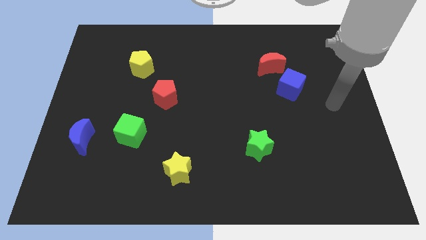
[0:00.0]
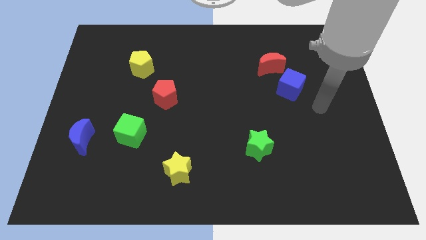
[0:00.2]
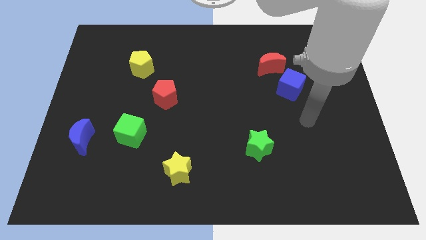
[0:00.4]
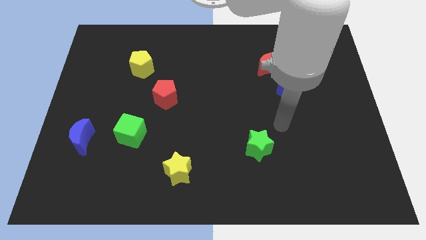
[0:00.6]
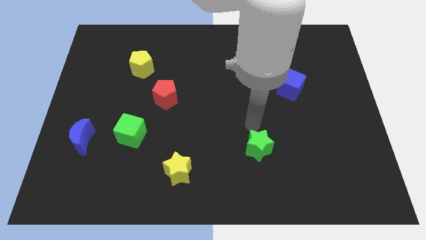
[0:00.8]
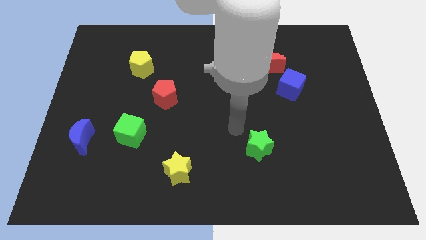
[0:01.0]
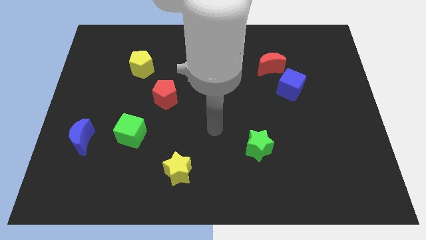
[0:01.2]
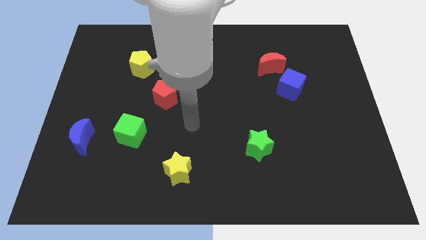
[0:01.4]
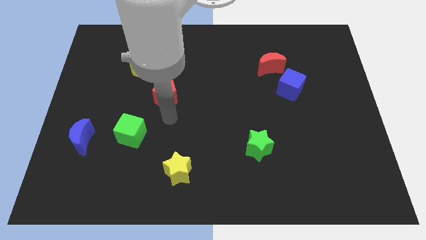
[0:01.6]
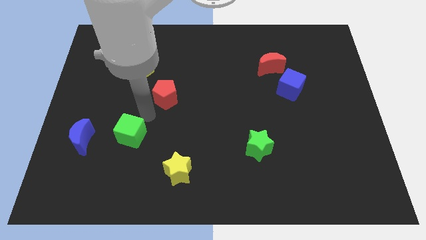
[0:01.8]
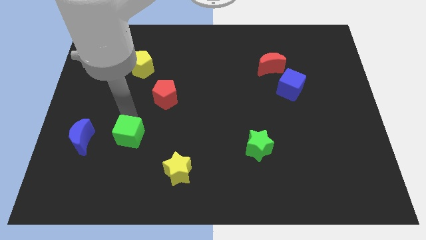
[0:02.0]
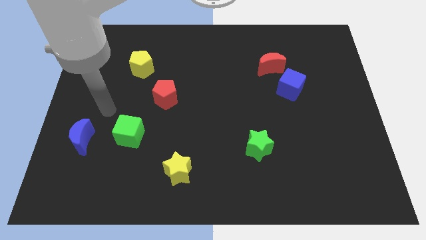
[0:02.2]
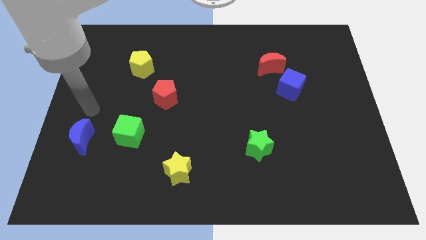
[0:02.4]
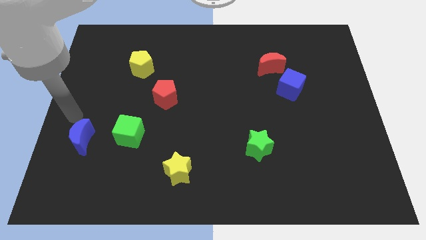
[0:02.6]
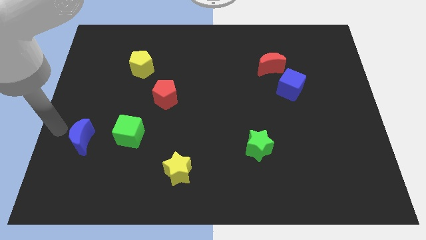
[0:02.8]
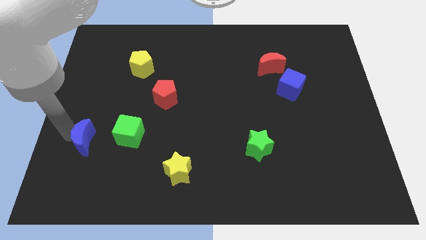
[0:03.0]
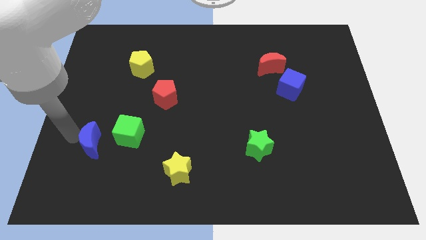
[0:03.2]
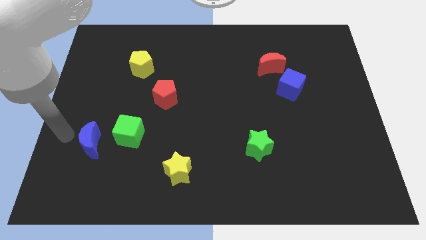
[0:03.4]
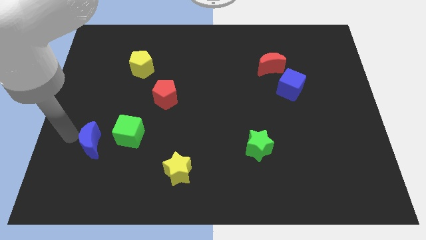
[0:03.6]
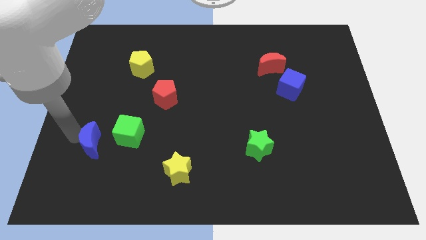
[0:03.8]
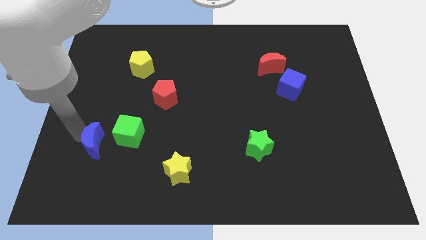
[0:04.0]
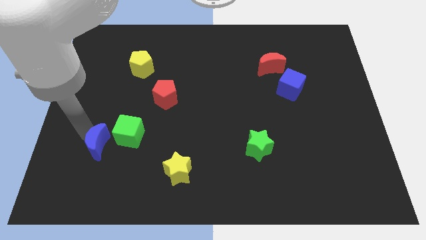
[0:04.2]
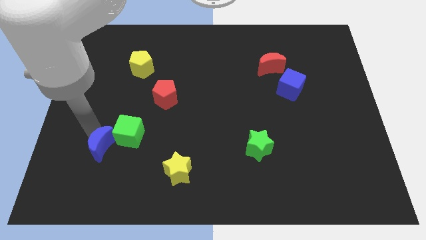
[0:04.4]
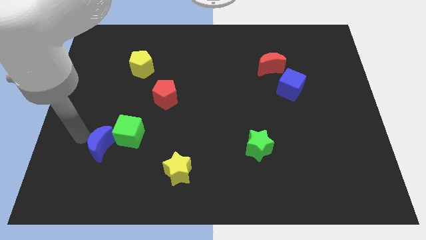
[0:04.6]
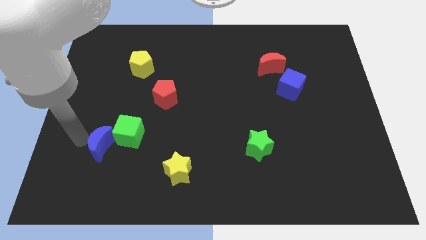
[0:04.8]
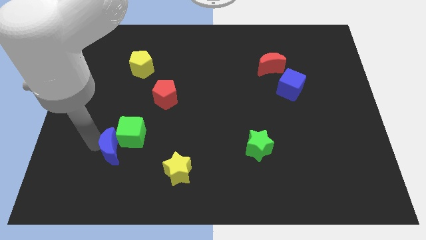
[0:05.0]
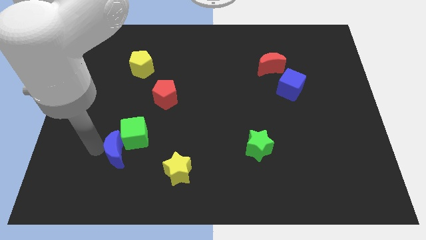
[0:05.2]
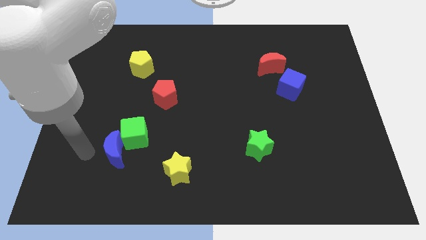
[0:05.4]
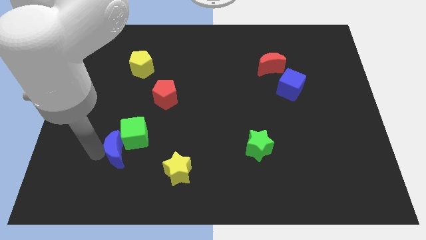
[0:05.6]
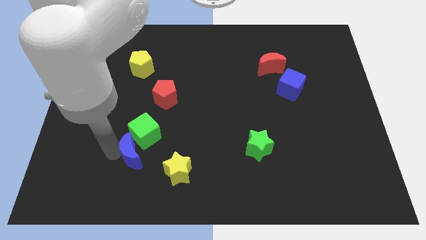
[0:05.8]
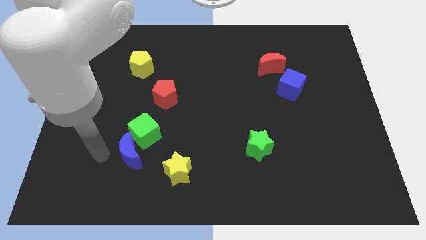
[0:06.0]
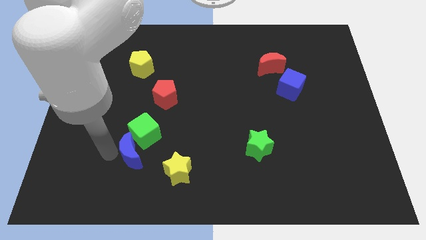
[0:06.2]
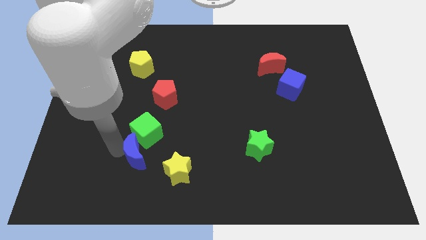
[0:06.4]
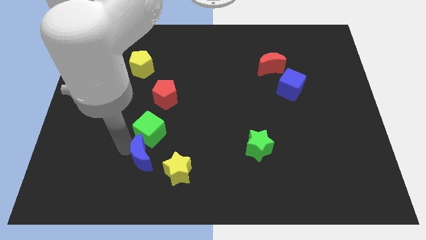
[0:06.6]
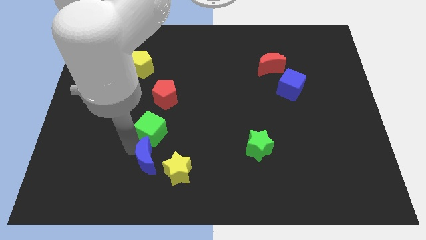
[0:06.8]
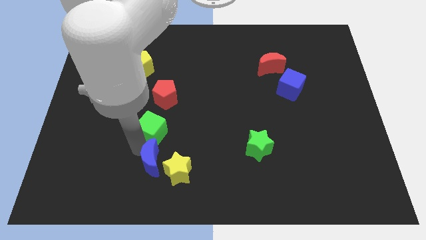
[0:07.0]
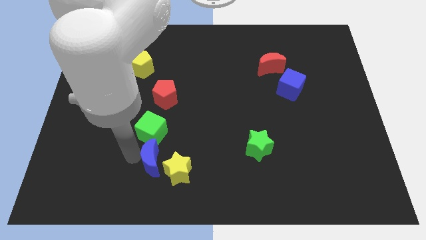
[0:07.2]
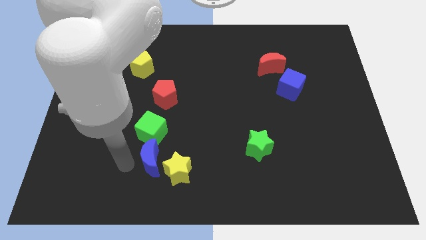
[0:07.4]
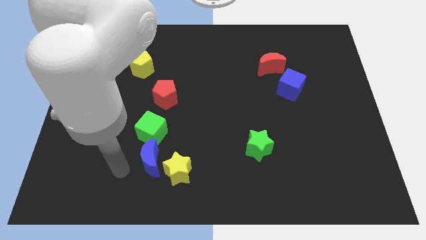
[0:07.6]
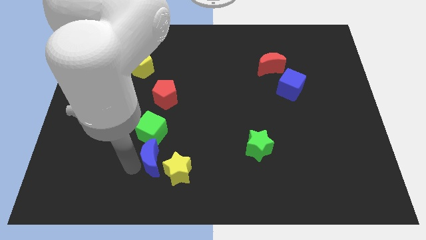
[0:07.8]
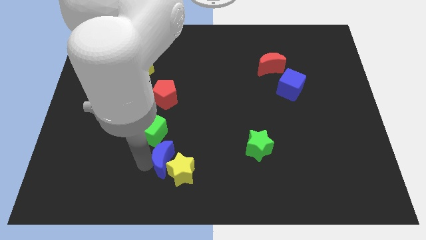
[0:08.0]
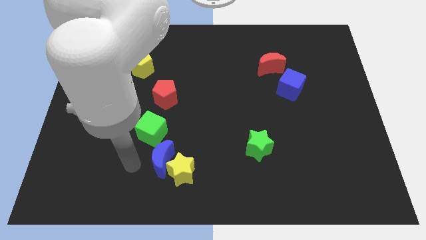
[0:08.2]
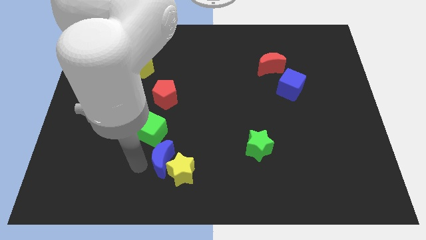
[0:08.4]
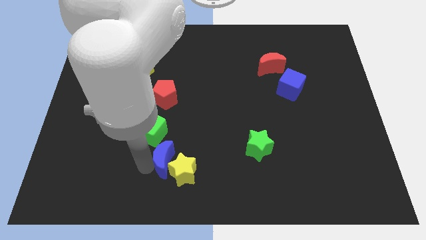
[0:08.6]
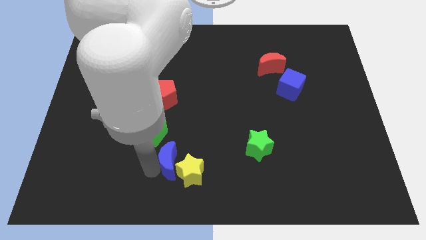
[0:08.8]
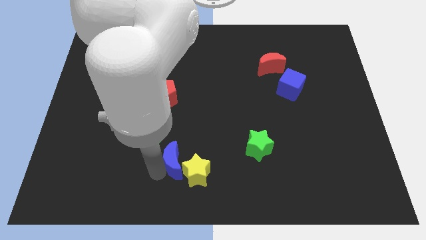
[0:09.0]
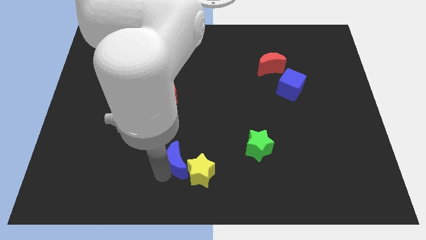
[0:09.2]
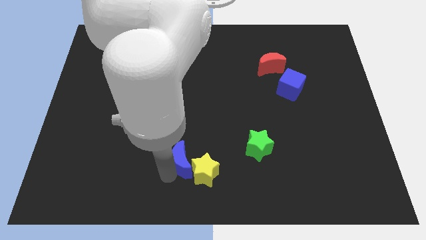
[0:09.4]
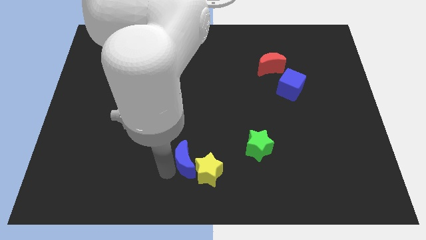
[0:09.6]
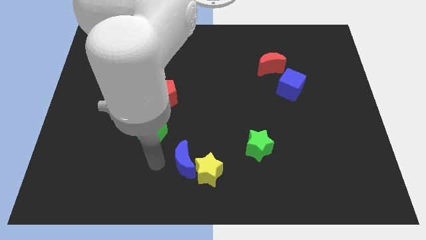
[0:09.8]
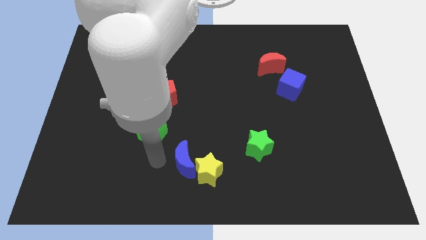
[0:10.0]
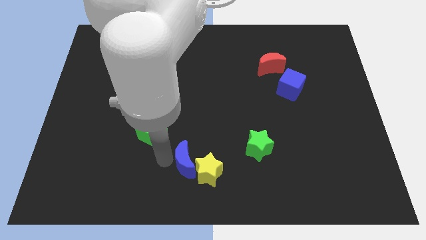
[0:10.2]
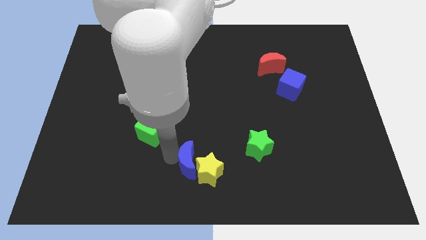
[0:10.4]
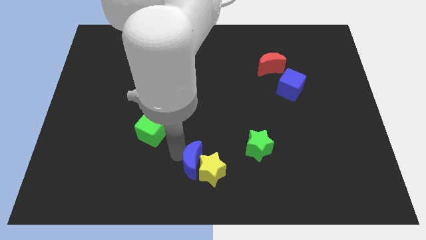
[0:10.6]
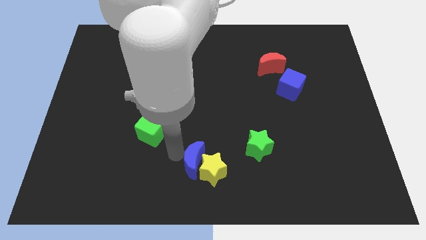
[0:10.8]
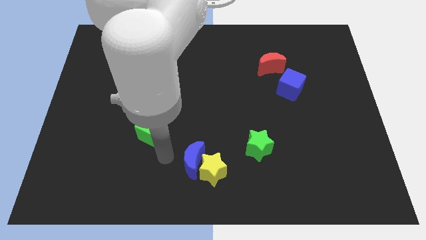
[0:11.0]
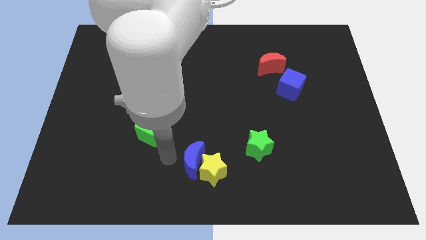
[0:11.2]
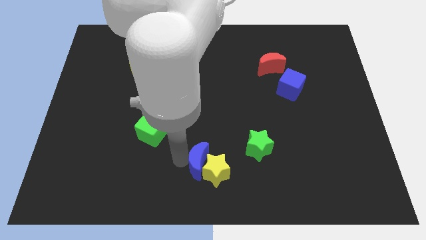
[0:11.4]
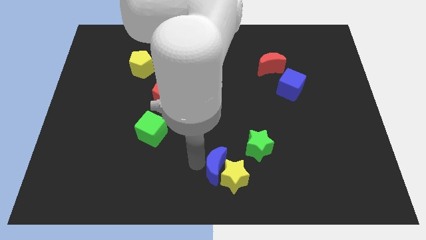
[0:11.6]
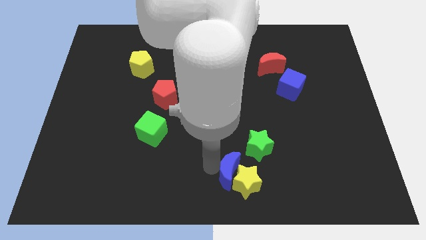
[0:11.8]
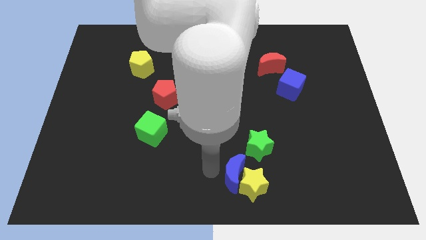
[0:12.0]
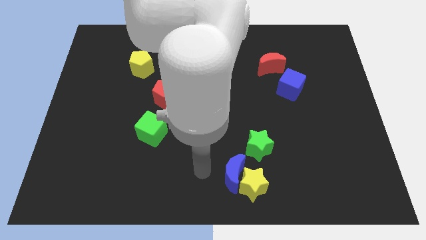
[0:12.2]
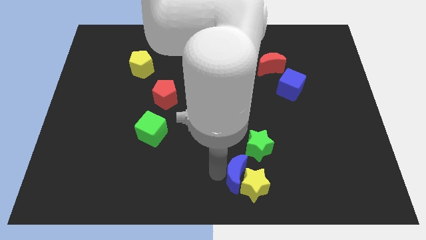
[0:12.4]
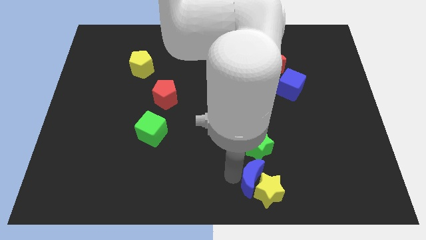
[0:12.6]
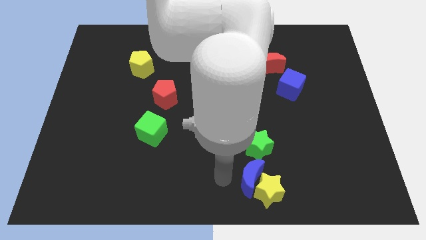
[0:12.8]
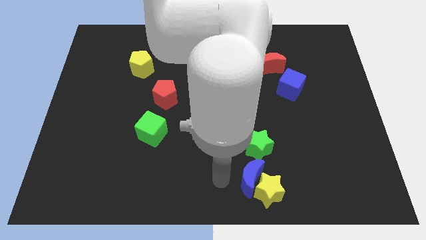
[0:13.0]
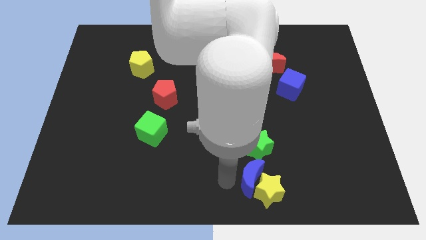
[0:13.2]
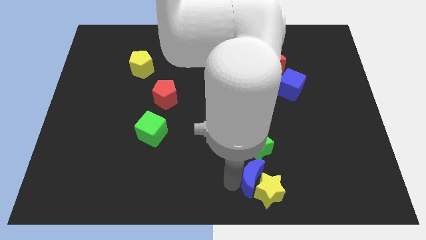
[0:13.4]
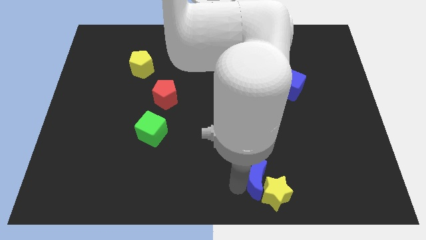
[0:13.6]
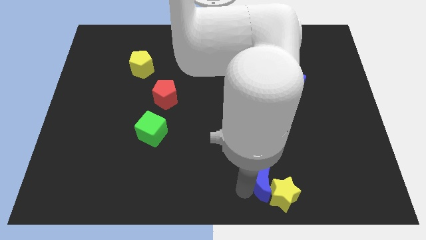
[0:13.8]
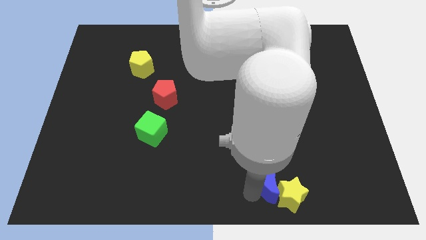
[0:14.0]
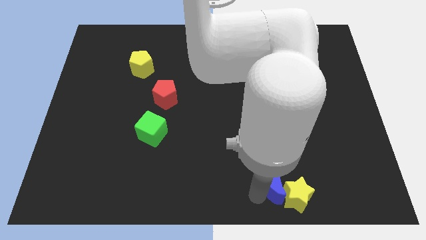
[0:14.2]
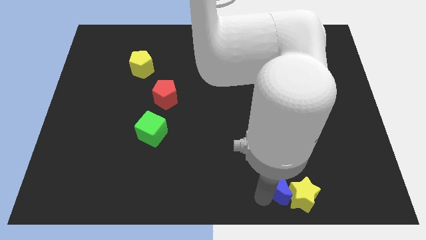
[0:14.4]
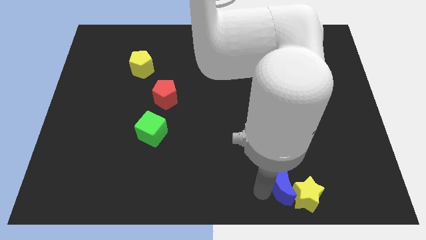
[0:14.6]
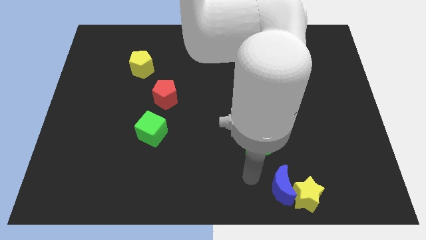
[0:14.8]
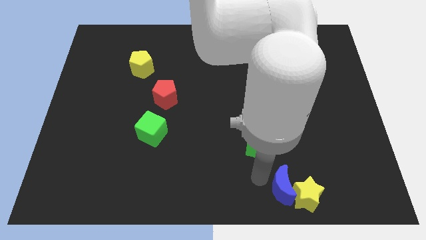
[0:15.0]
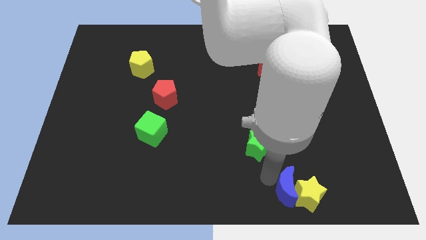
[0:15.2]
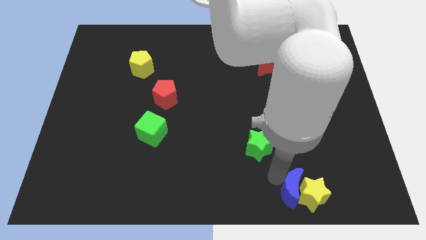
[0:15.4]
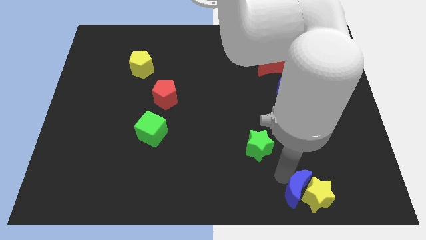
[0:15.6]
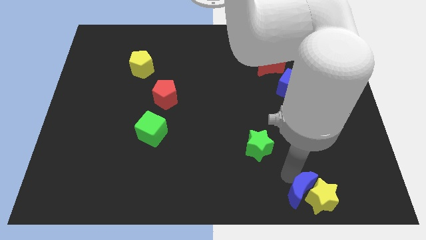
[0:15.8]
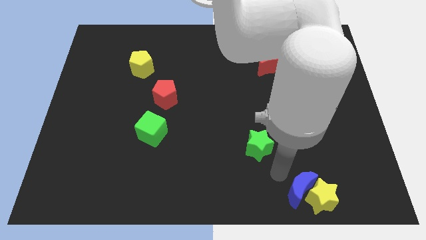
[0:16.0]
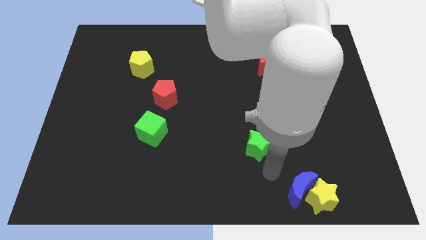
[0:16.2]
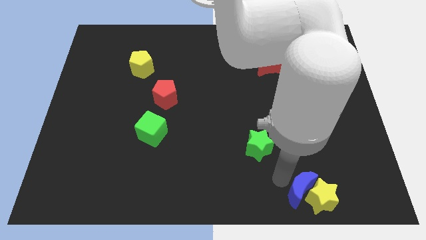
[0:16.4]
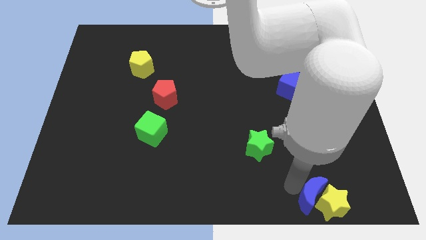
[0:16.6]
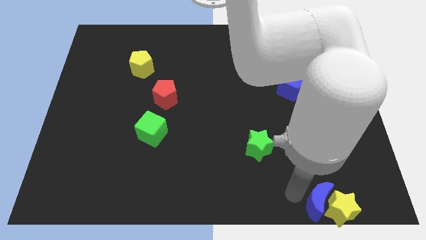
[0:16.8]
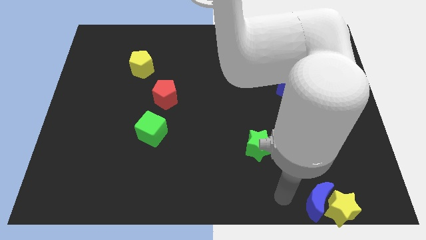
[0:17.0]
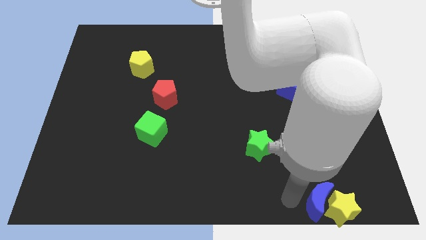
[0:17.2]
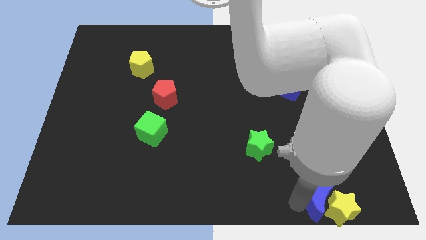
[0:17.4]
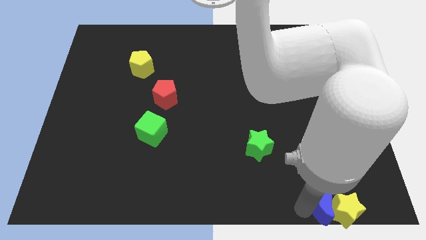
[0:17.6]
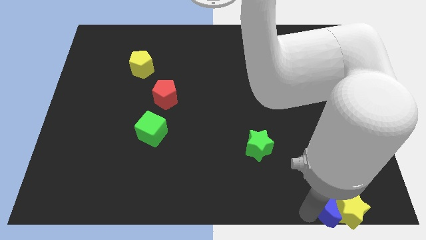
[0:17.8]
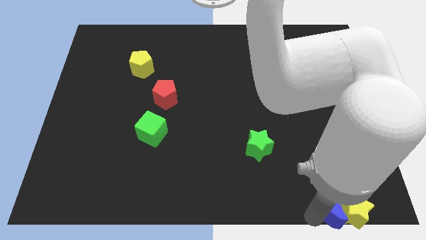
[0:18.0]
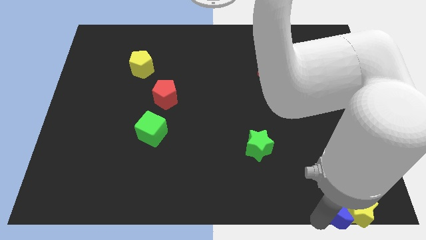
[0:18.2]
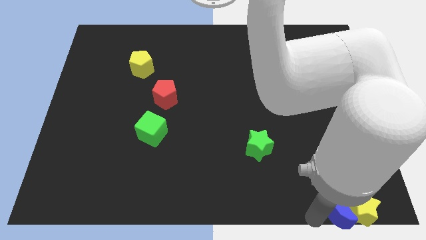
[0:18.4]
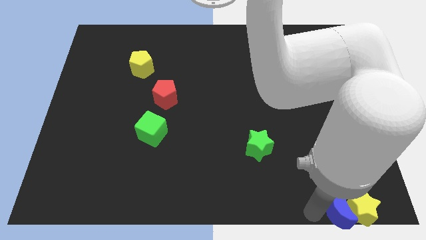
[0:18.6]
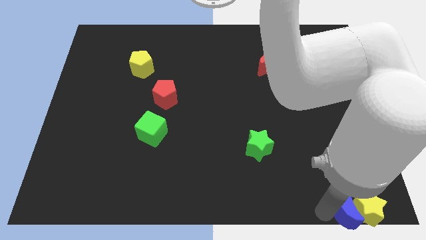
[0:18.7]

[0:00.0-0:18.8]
put the blue moon to the bottom right
